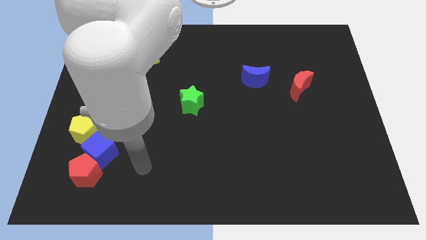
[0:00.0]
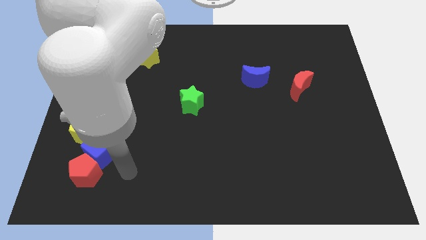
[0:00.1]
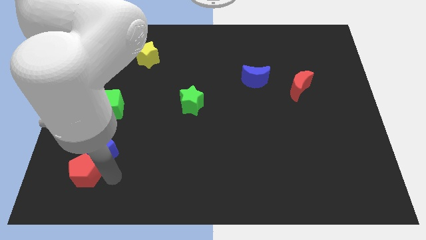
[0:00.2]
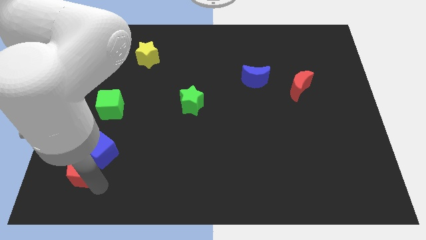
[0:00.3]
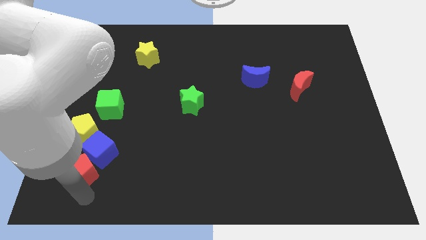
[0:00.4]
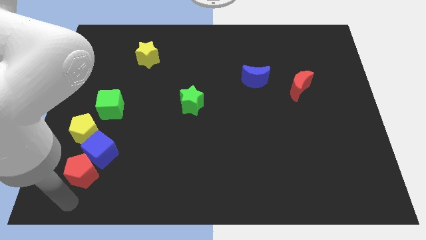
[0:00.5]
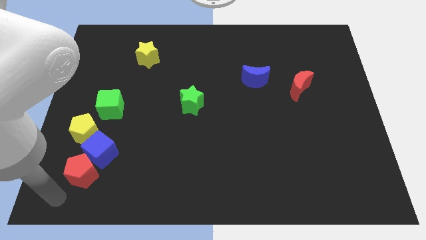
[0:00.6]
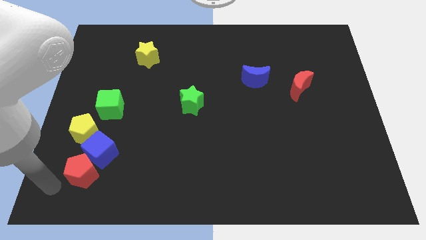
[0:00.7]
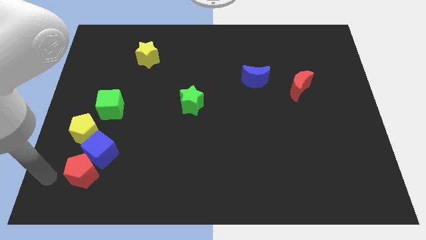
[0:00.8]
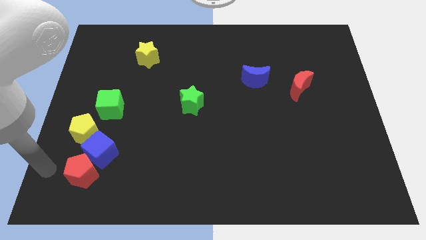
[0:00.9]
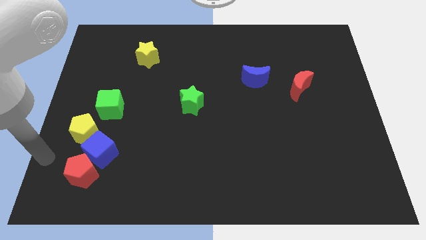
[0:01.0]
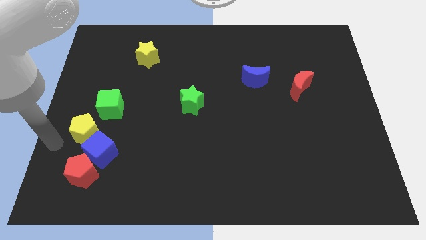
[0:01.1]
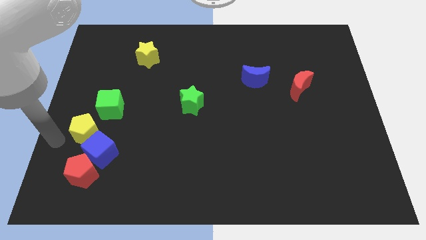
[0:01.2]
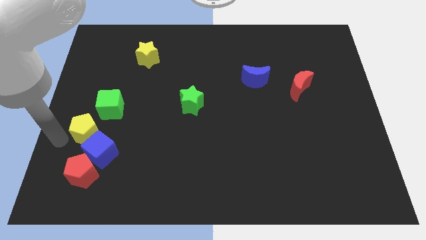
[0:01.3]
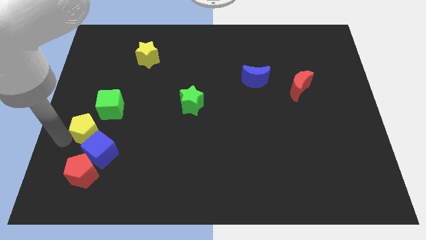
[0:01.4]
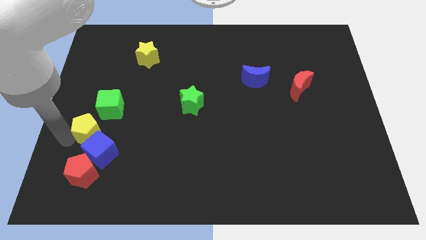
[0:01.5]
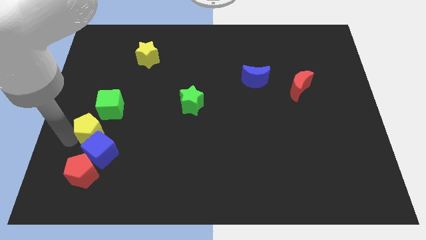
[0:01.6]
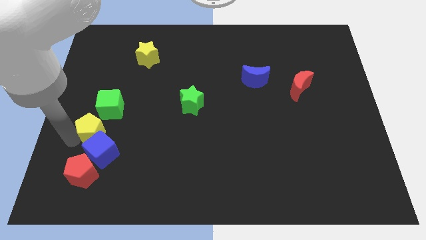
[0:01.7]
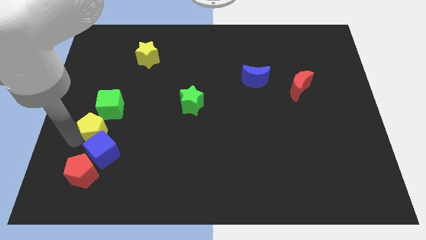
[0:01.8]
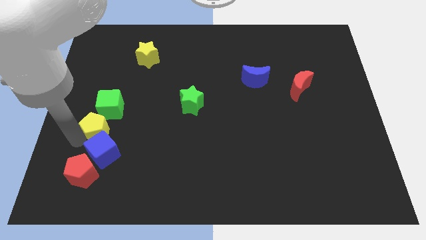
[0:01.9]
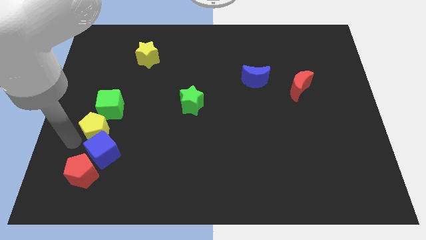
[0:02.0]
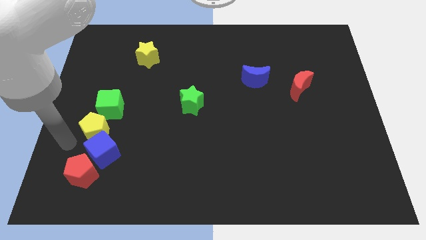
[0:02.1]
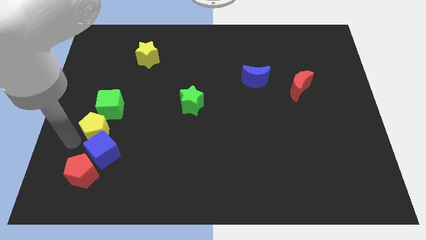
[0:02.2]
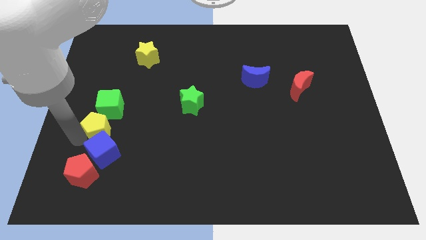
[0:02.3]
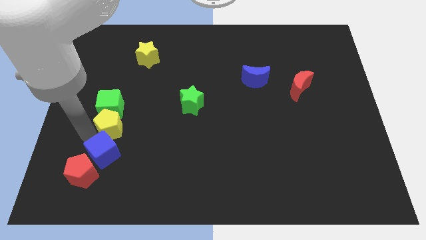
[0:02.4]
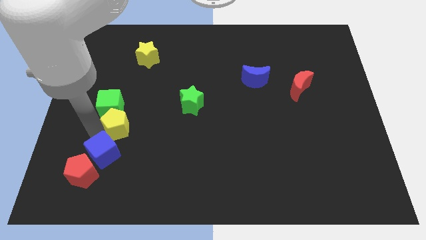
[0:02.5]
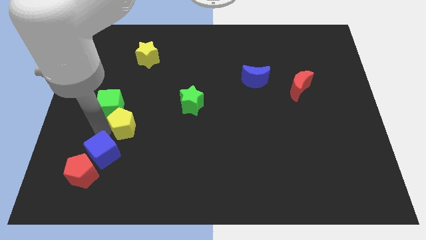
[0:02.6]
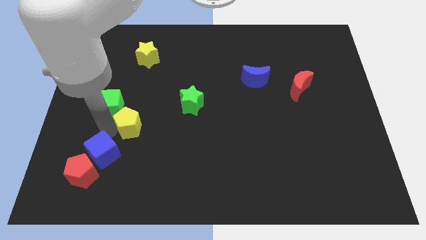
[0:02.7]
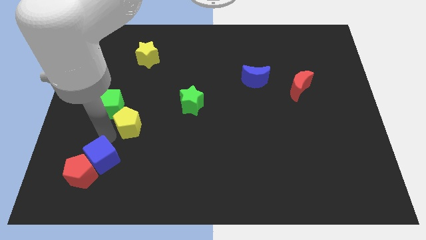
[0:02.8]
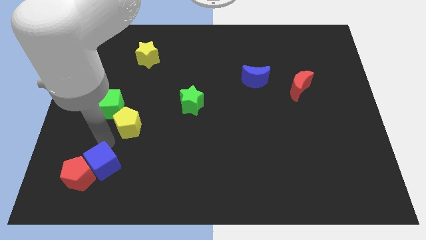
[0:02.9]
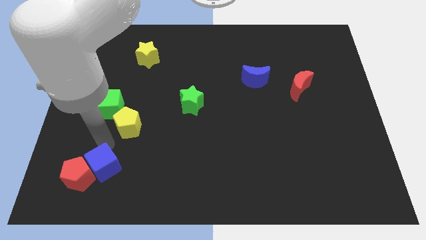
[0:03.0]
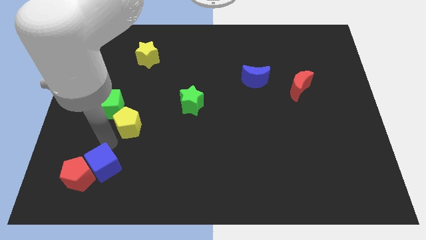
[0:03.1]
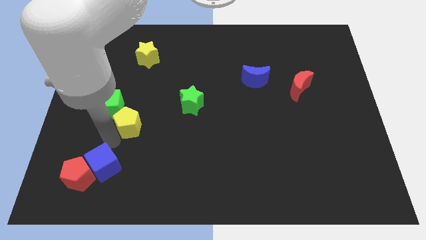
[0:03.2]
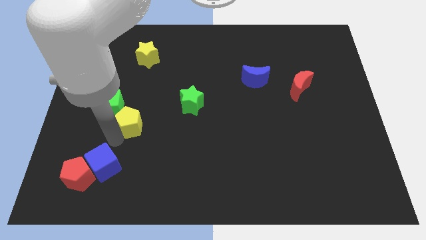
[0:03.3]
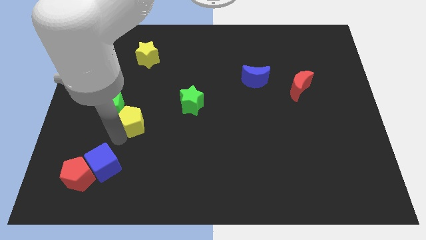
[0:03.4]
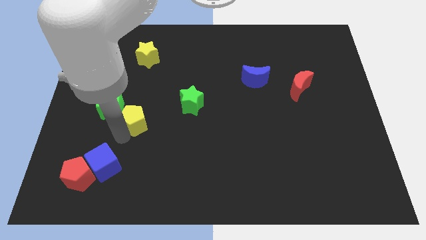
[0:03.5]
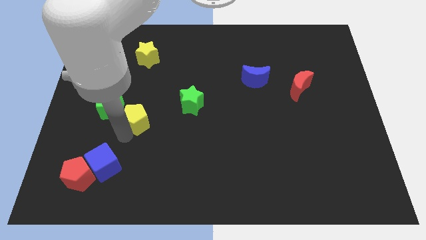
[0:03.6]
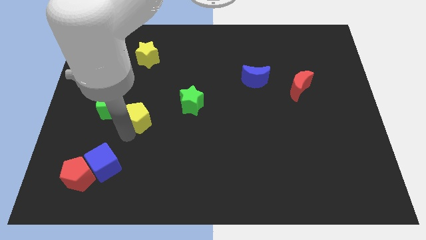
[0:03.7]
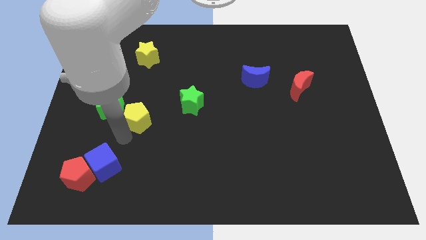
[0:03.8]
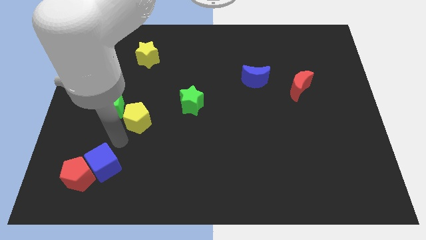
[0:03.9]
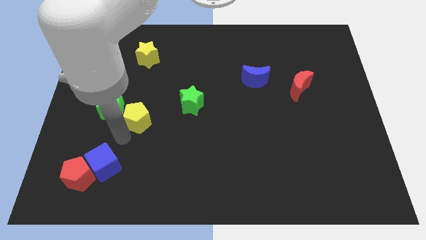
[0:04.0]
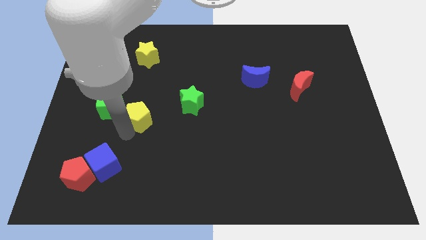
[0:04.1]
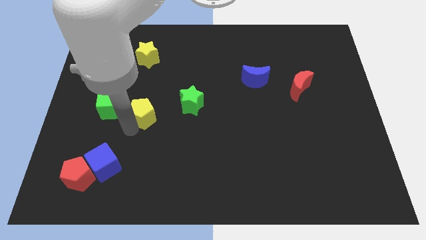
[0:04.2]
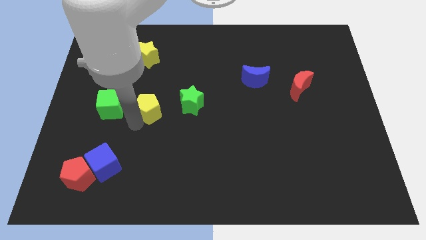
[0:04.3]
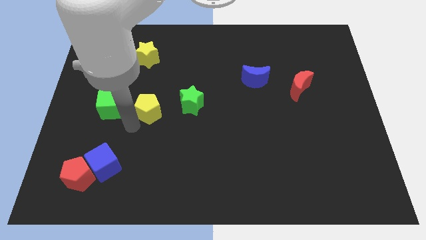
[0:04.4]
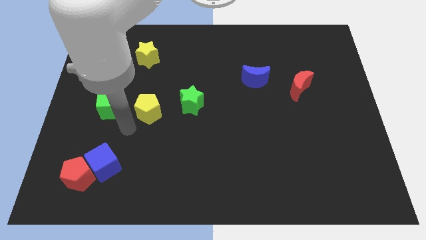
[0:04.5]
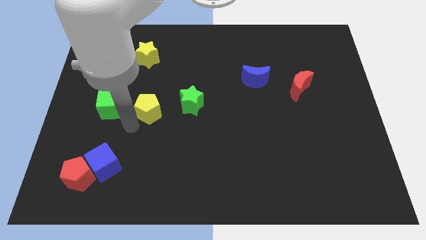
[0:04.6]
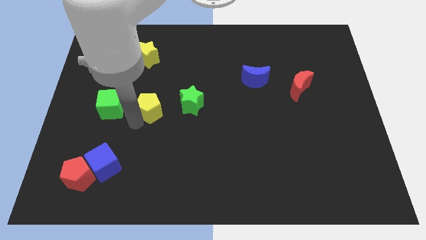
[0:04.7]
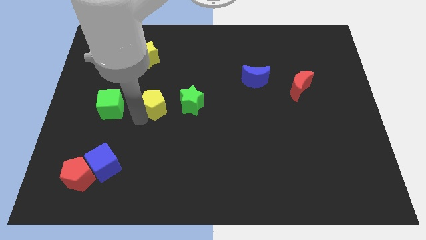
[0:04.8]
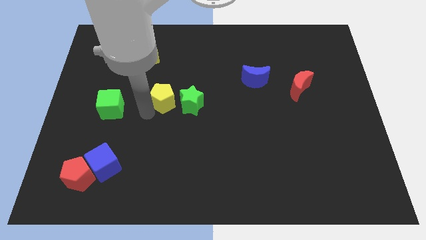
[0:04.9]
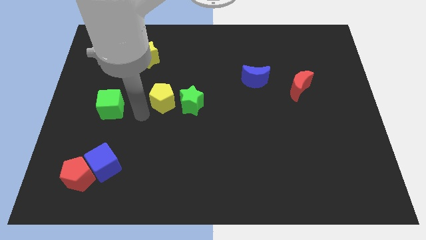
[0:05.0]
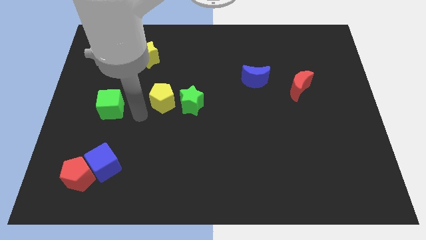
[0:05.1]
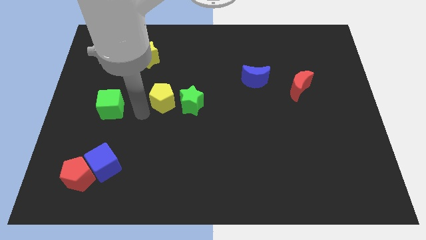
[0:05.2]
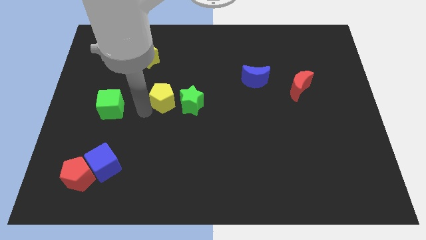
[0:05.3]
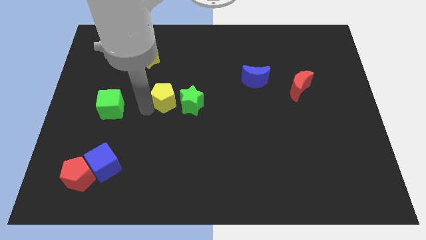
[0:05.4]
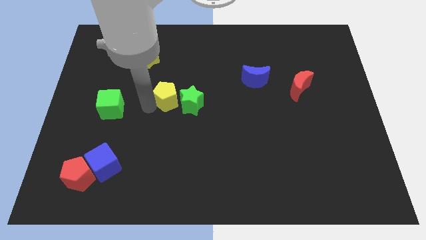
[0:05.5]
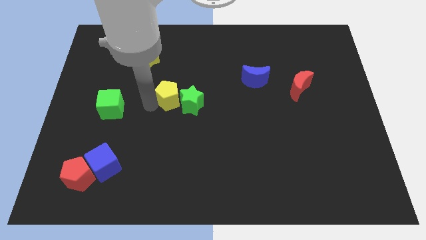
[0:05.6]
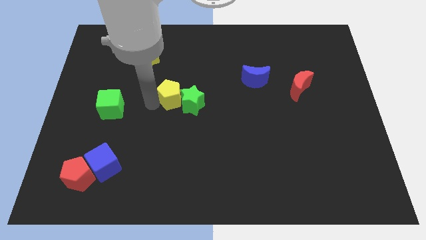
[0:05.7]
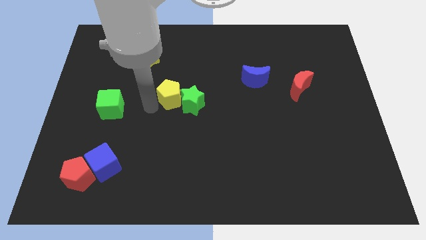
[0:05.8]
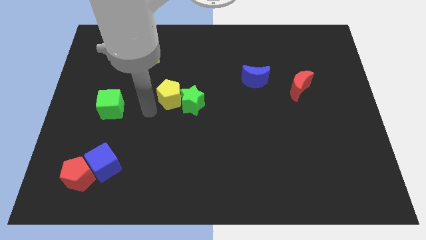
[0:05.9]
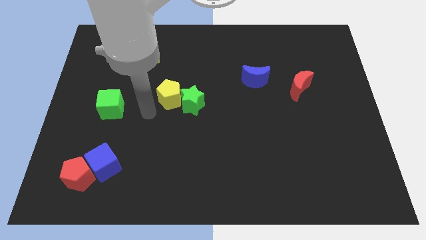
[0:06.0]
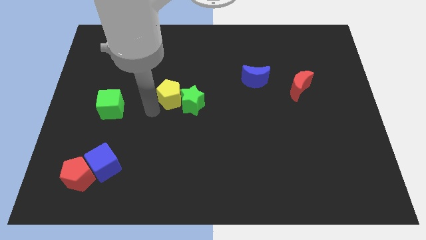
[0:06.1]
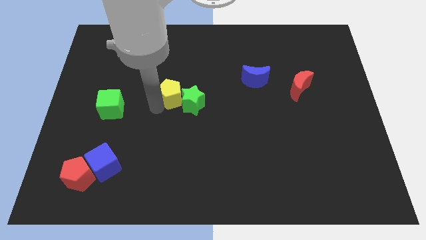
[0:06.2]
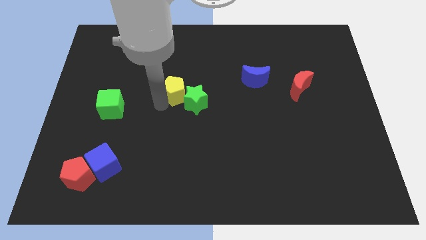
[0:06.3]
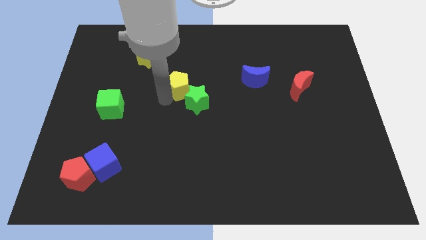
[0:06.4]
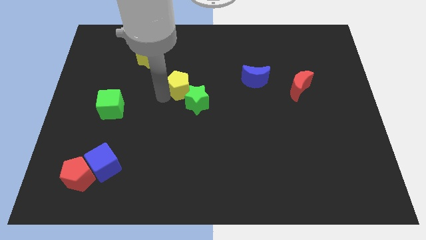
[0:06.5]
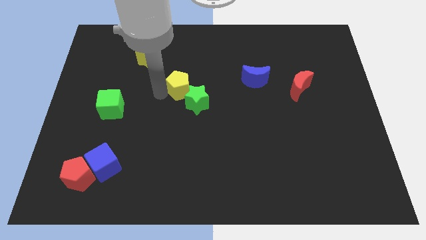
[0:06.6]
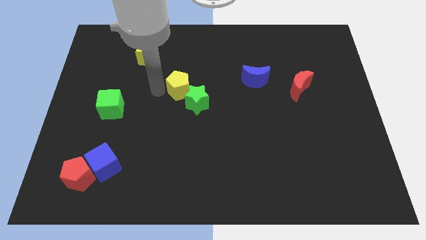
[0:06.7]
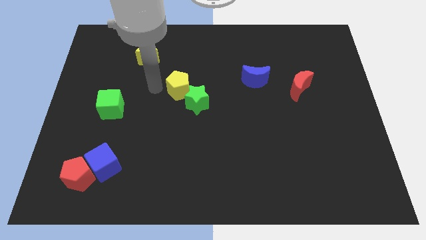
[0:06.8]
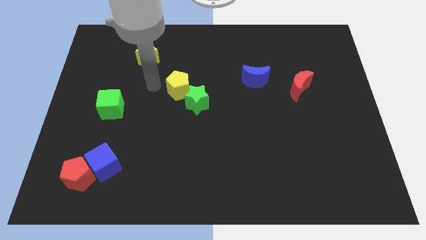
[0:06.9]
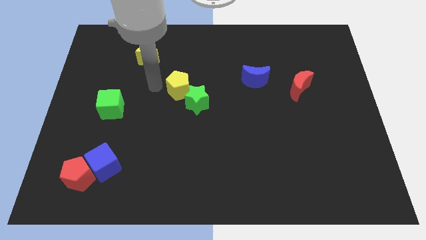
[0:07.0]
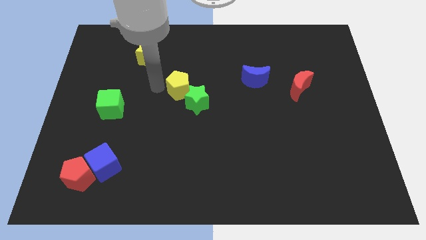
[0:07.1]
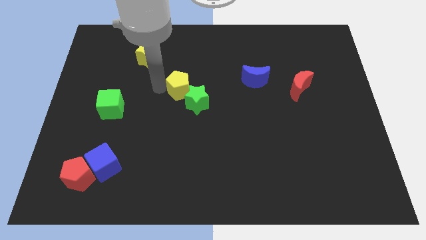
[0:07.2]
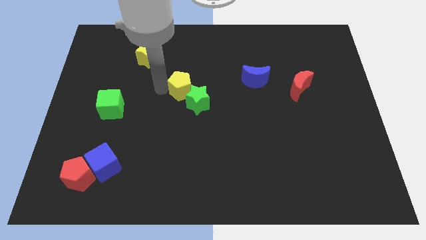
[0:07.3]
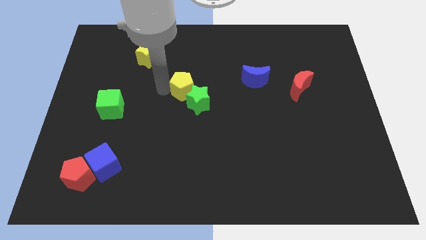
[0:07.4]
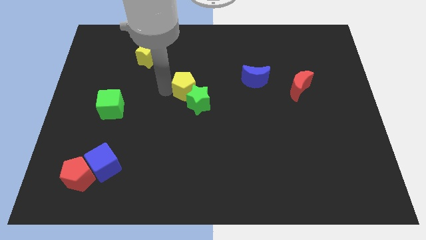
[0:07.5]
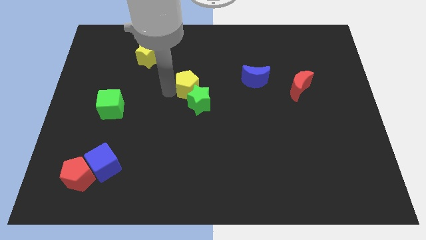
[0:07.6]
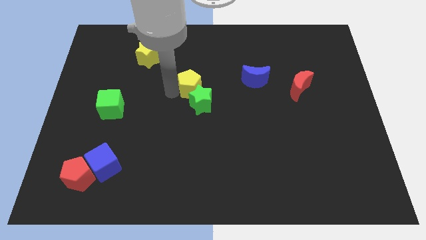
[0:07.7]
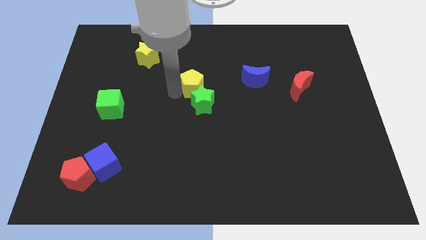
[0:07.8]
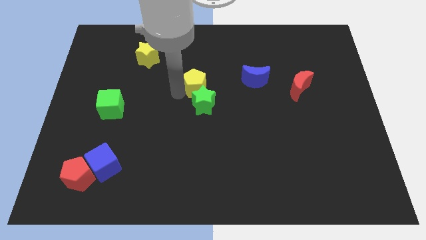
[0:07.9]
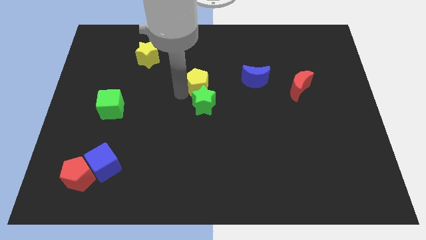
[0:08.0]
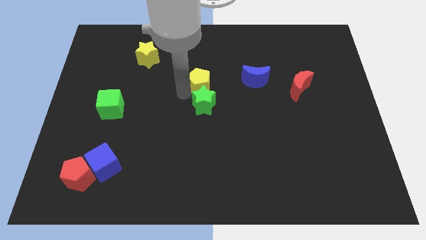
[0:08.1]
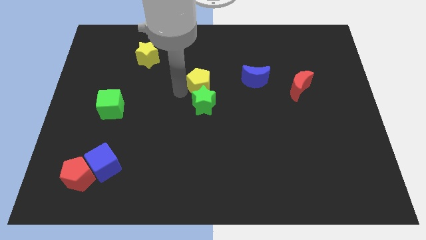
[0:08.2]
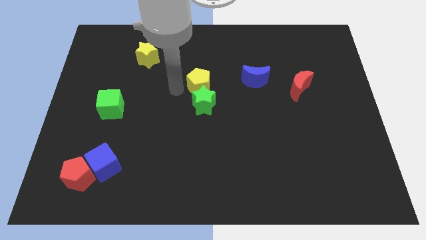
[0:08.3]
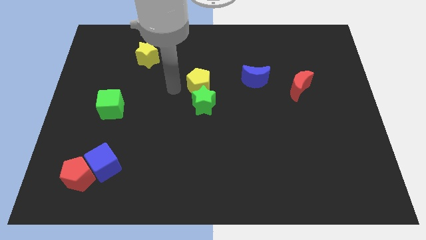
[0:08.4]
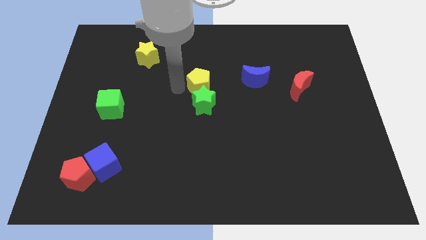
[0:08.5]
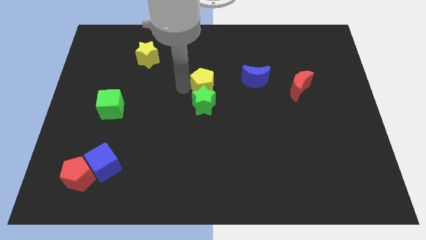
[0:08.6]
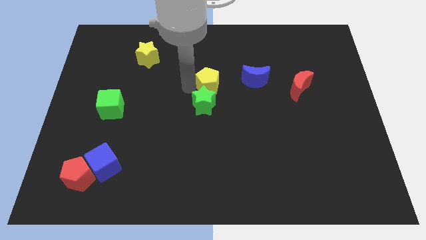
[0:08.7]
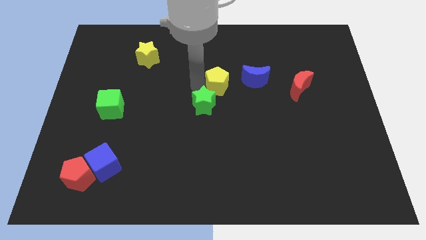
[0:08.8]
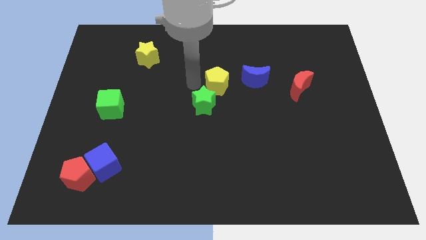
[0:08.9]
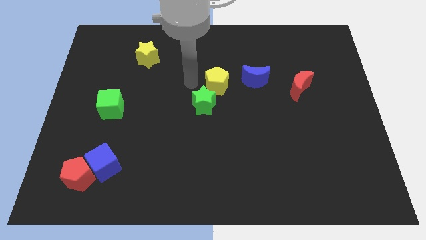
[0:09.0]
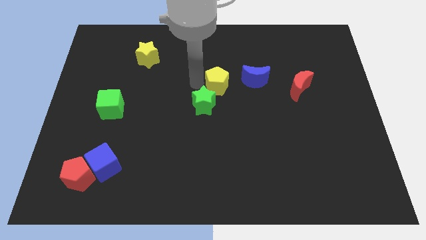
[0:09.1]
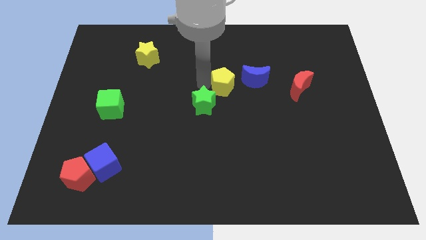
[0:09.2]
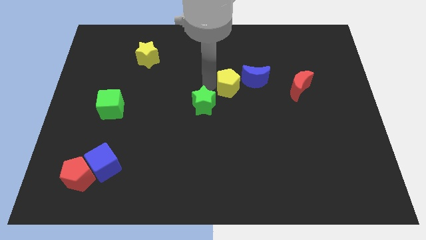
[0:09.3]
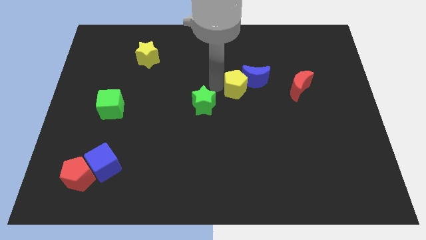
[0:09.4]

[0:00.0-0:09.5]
move the yellow pentagon to the left of the red moon
